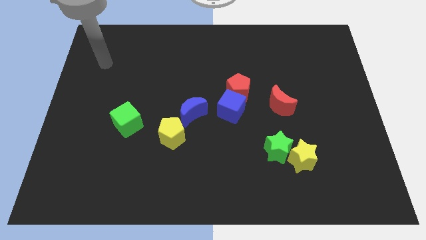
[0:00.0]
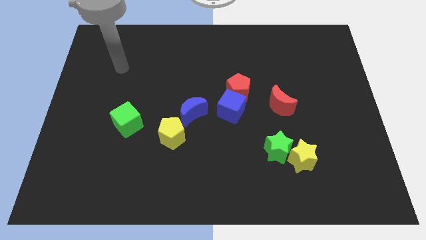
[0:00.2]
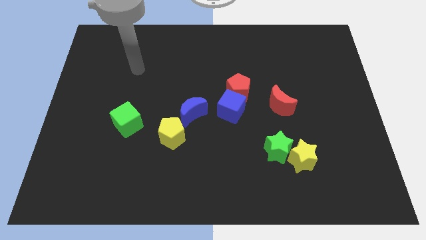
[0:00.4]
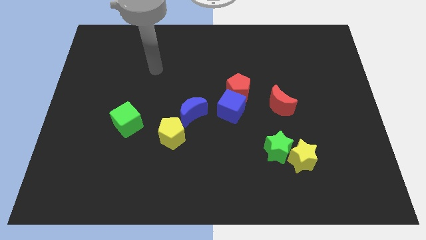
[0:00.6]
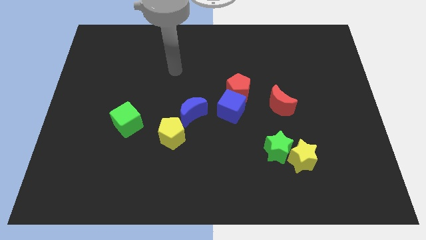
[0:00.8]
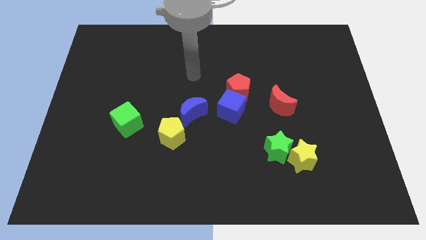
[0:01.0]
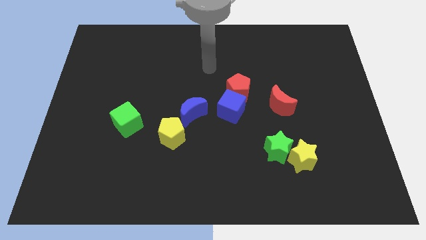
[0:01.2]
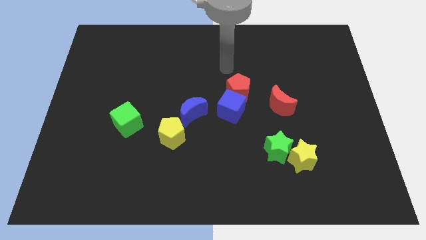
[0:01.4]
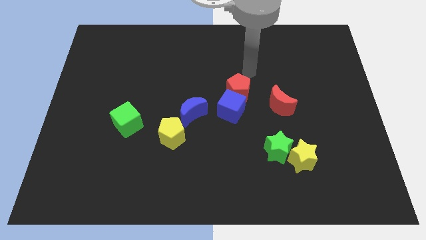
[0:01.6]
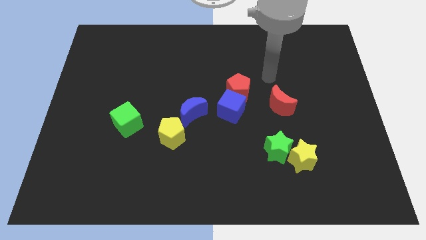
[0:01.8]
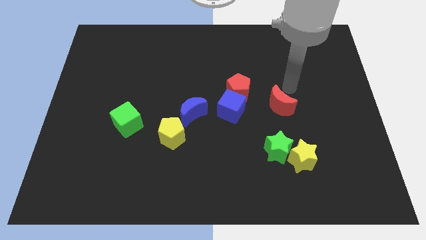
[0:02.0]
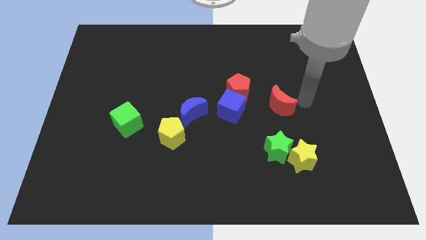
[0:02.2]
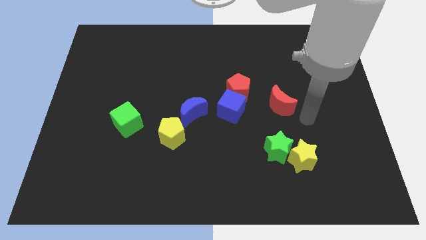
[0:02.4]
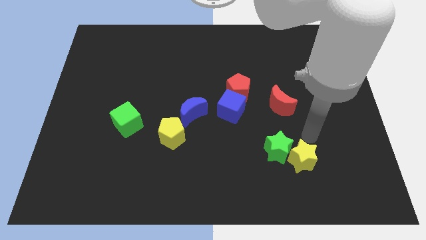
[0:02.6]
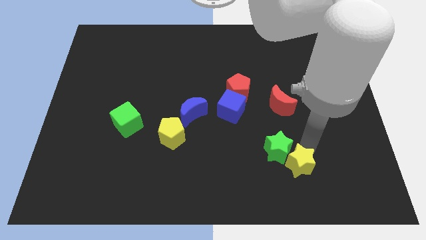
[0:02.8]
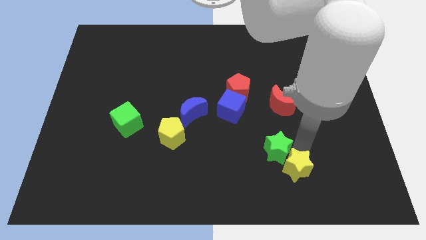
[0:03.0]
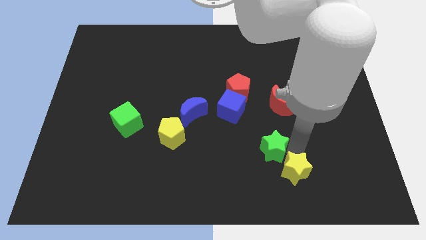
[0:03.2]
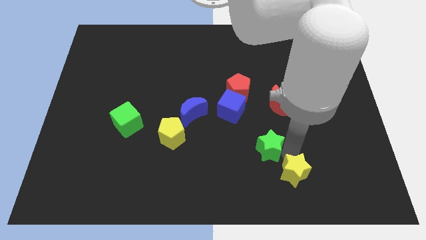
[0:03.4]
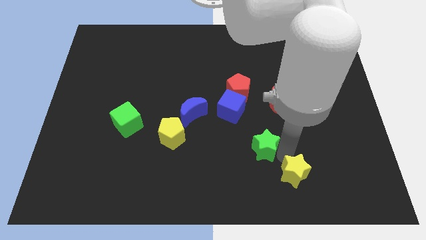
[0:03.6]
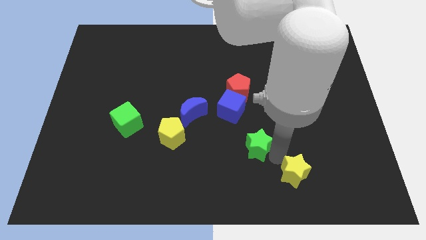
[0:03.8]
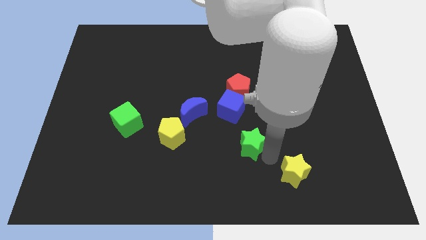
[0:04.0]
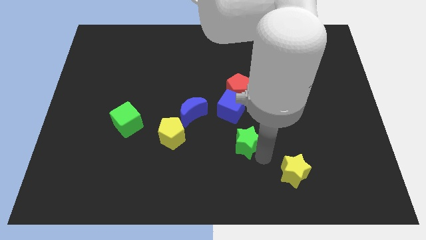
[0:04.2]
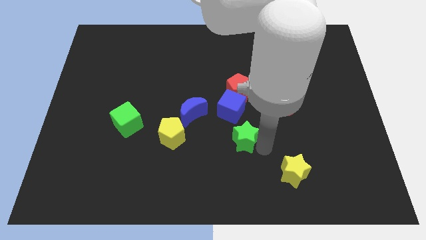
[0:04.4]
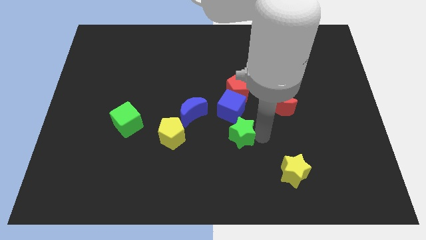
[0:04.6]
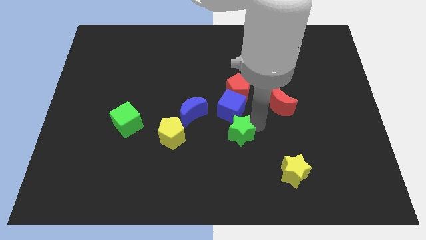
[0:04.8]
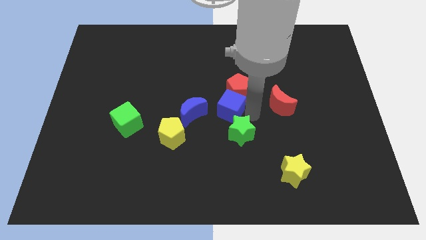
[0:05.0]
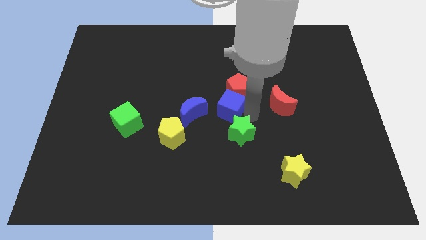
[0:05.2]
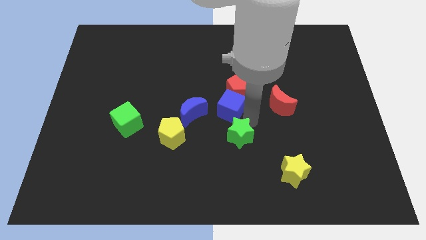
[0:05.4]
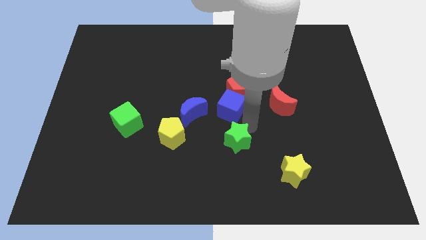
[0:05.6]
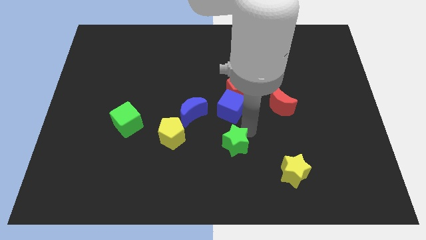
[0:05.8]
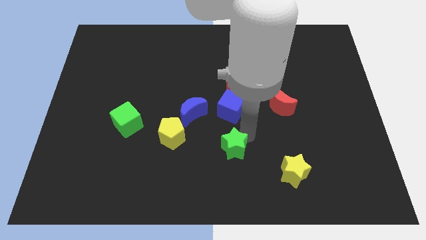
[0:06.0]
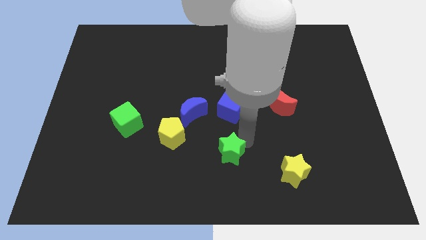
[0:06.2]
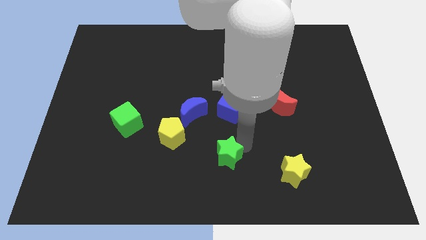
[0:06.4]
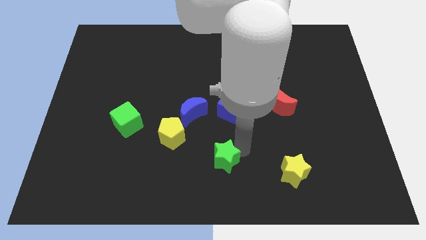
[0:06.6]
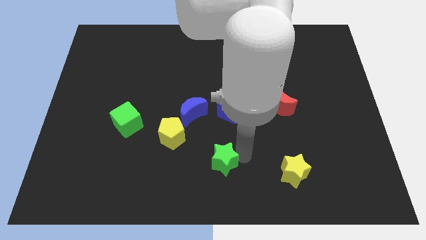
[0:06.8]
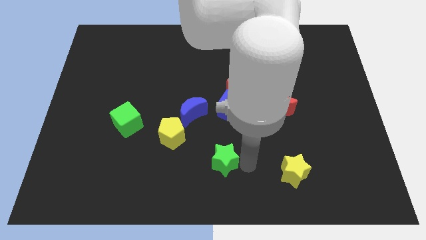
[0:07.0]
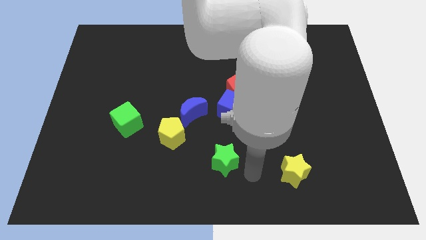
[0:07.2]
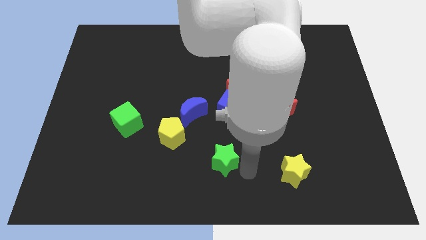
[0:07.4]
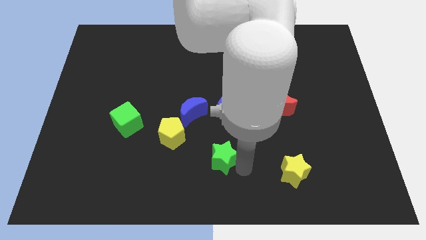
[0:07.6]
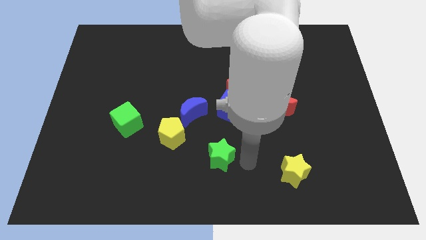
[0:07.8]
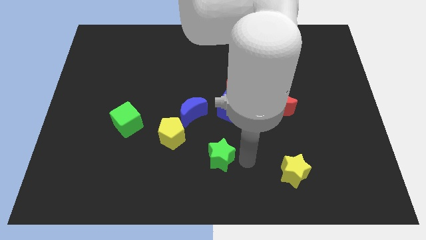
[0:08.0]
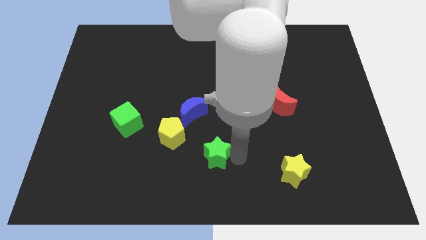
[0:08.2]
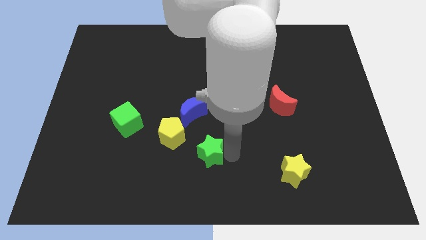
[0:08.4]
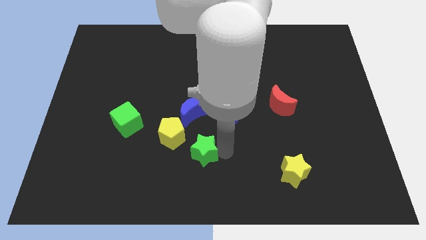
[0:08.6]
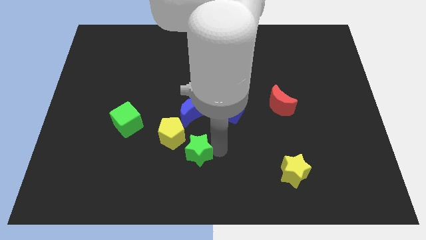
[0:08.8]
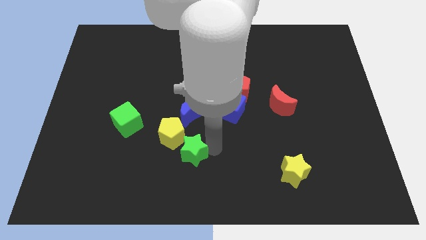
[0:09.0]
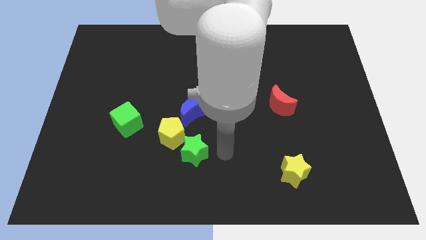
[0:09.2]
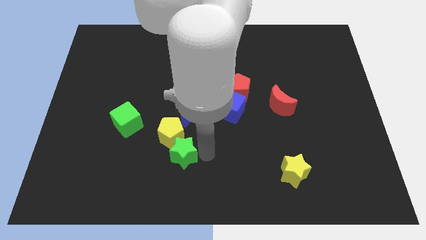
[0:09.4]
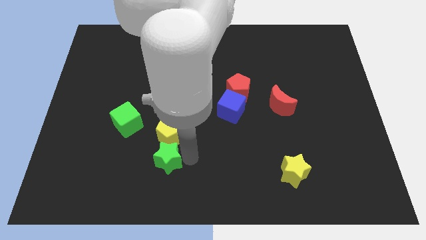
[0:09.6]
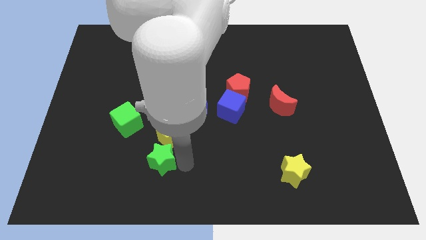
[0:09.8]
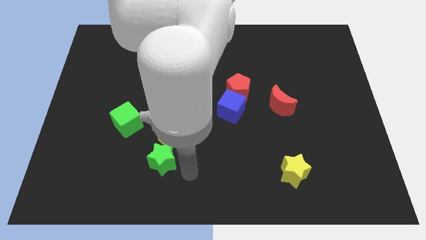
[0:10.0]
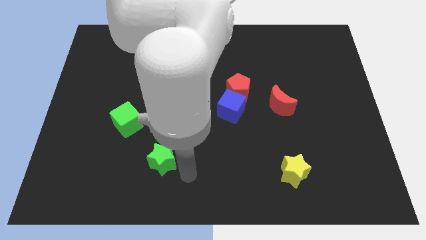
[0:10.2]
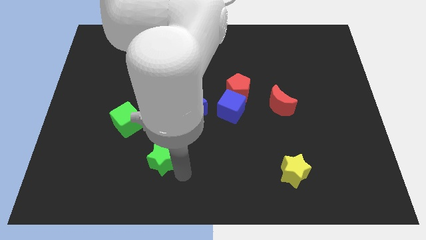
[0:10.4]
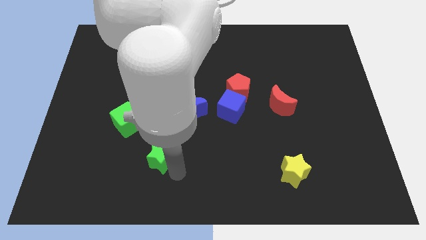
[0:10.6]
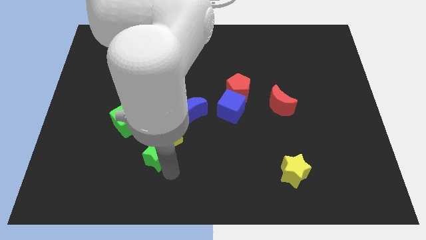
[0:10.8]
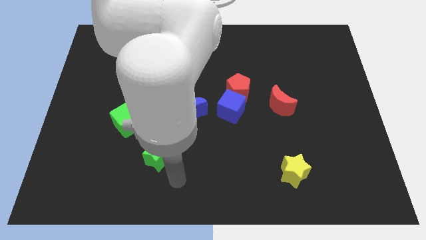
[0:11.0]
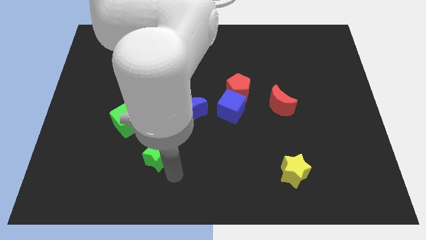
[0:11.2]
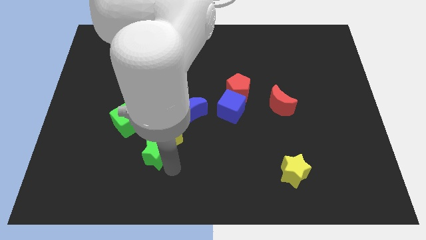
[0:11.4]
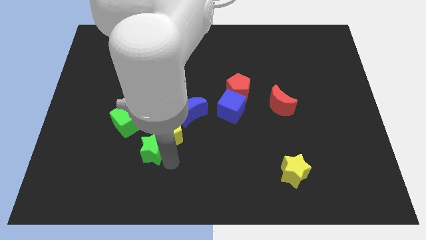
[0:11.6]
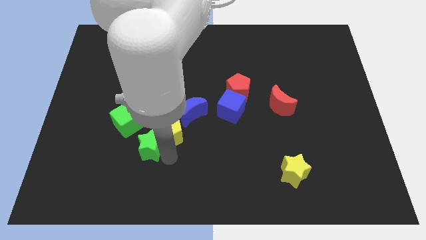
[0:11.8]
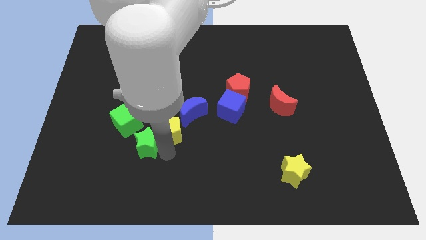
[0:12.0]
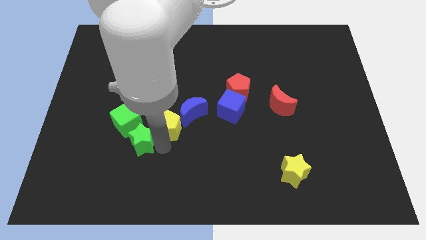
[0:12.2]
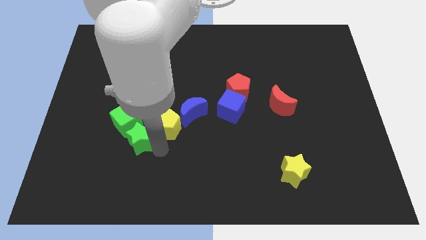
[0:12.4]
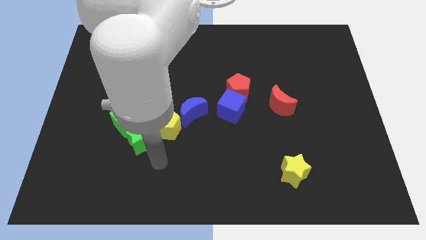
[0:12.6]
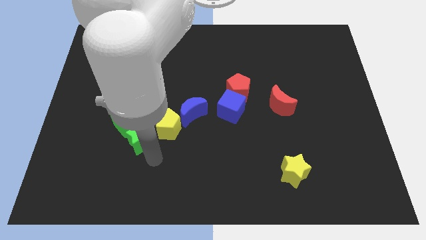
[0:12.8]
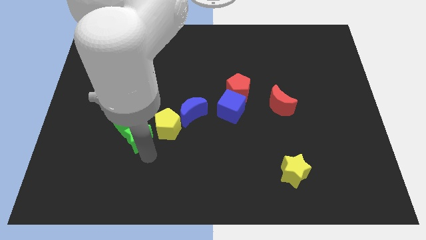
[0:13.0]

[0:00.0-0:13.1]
push the green star towards the green cube
